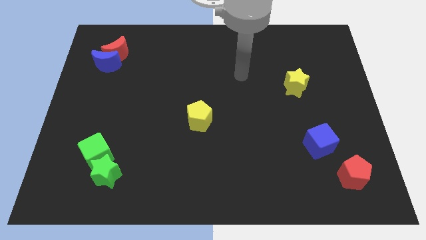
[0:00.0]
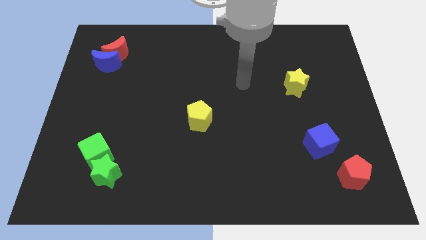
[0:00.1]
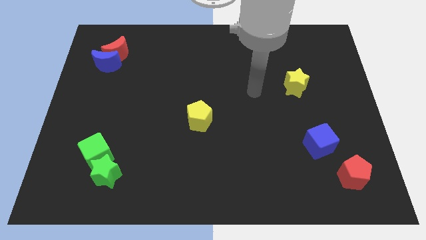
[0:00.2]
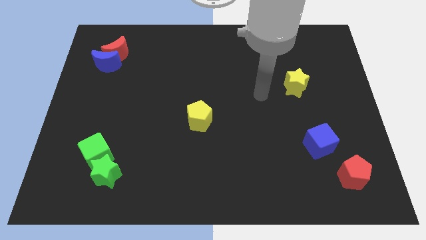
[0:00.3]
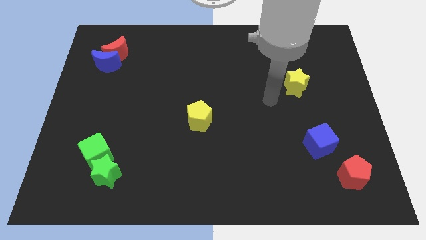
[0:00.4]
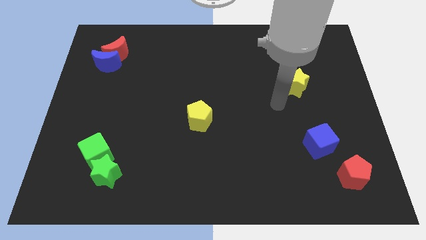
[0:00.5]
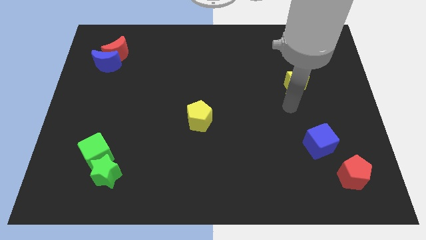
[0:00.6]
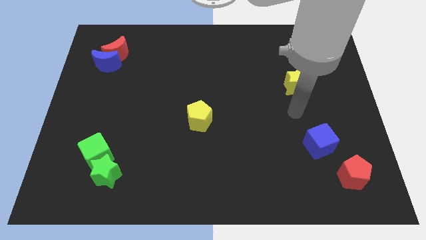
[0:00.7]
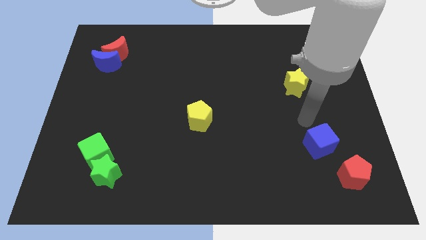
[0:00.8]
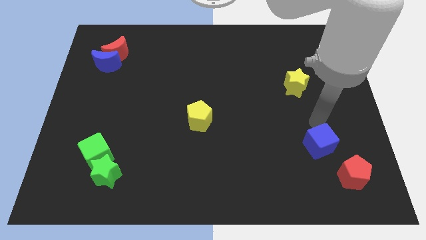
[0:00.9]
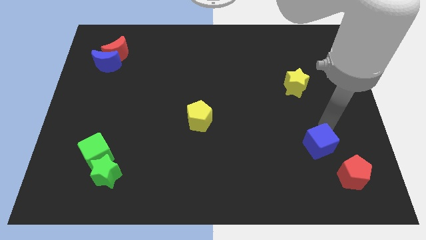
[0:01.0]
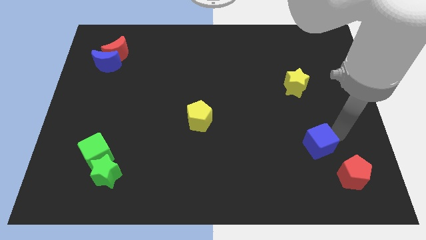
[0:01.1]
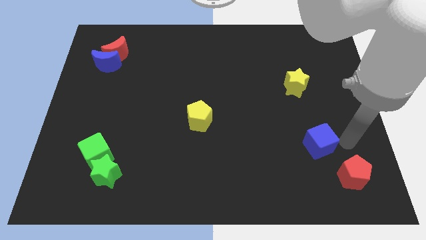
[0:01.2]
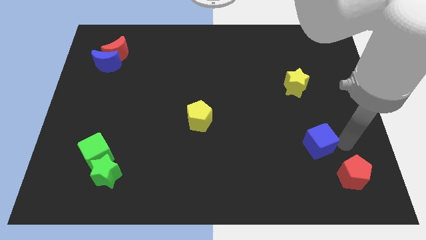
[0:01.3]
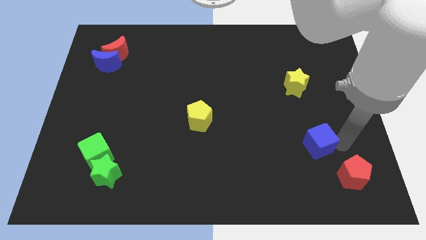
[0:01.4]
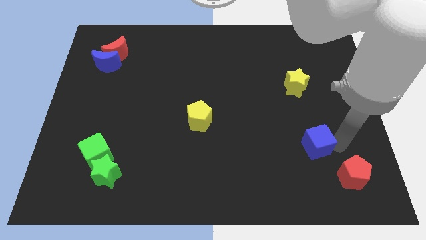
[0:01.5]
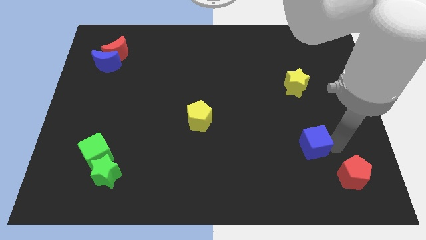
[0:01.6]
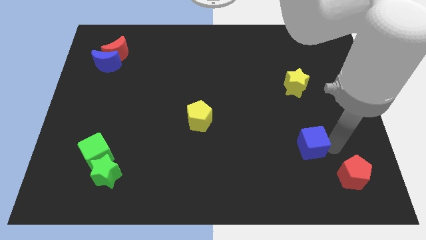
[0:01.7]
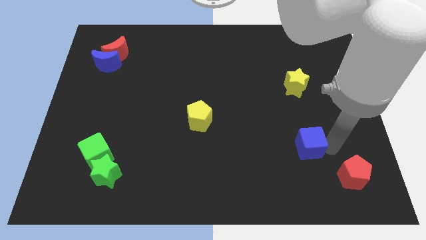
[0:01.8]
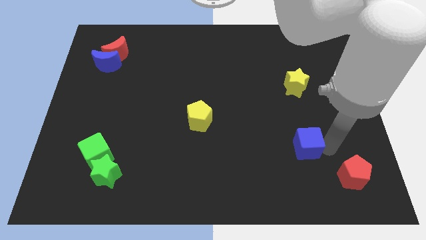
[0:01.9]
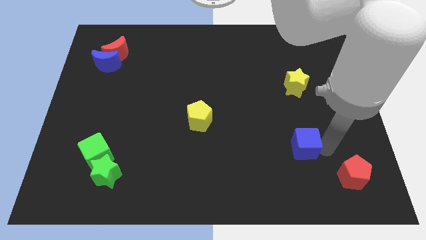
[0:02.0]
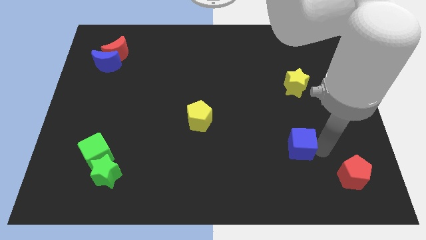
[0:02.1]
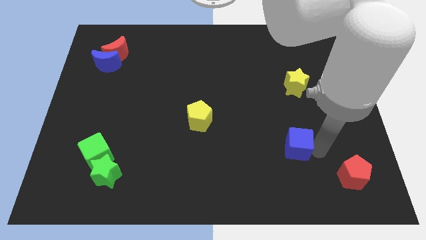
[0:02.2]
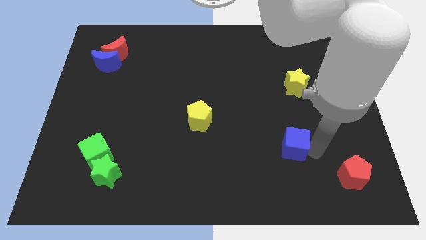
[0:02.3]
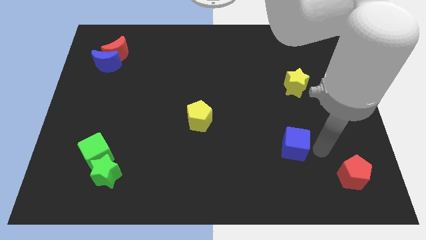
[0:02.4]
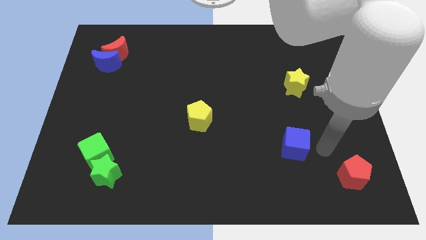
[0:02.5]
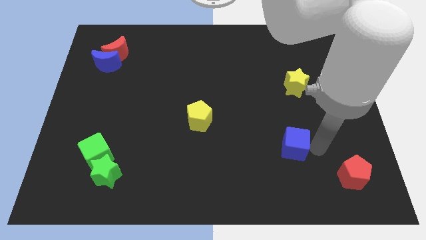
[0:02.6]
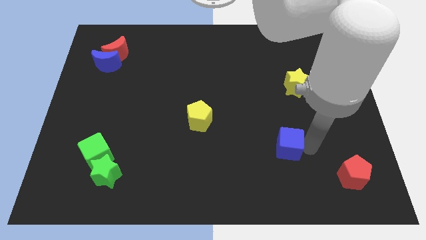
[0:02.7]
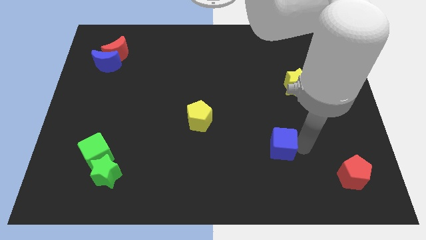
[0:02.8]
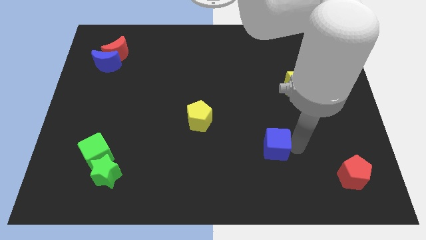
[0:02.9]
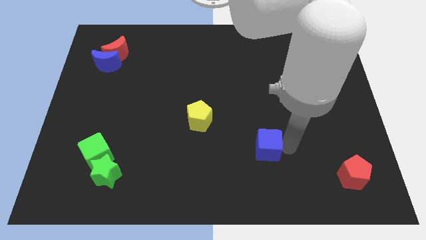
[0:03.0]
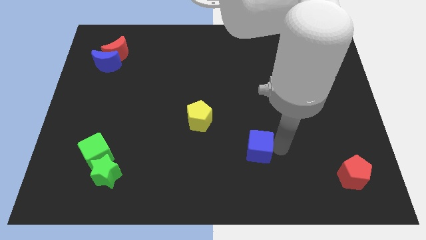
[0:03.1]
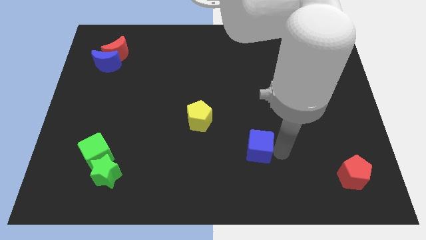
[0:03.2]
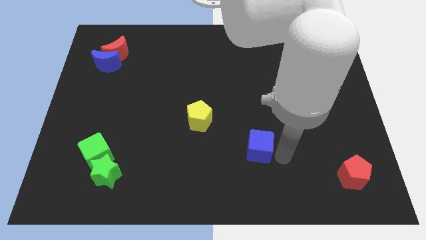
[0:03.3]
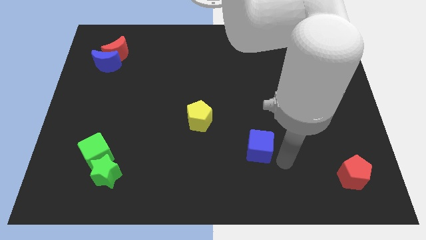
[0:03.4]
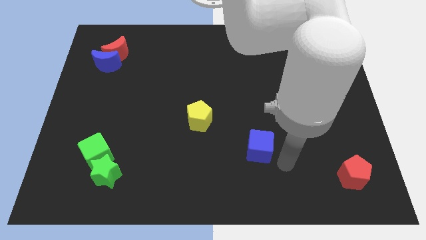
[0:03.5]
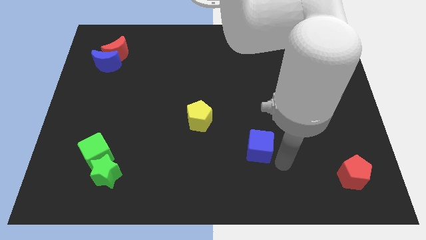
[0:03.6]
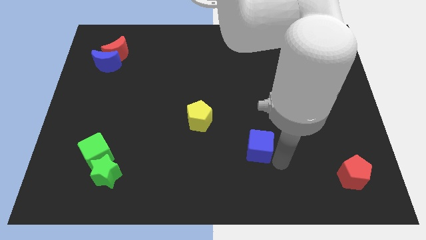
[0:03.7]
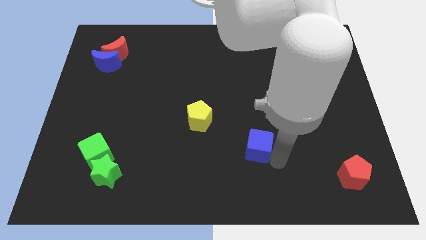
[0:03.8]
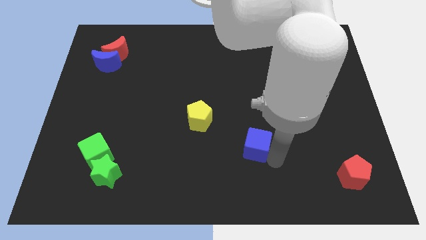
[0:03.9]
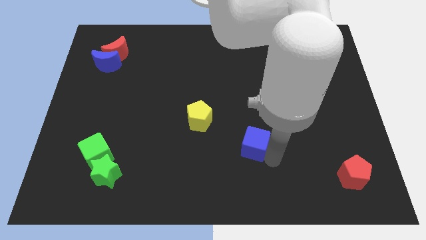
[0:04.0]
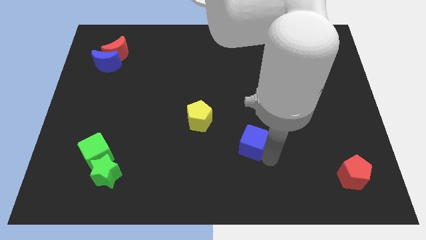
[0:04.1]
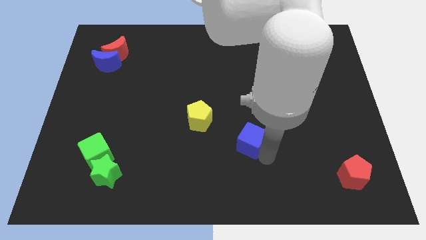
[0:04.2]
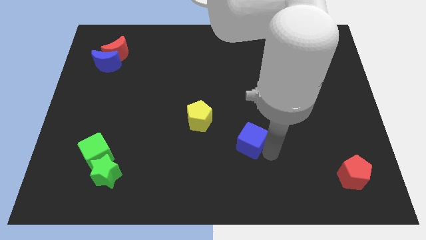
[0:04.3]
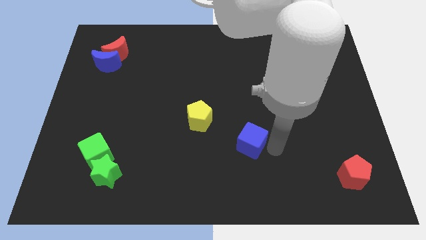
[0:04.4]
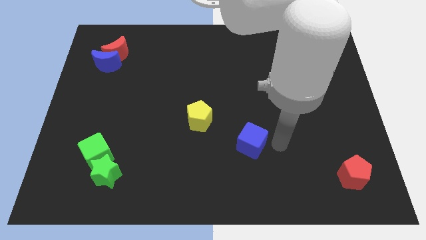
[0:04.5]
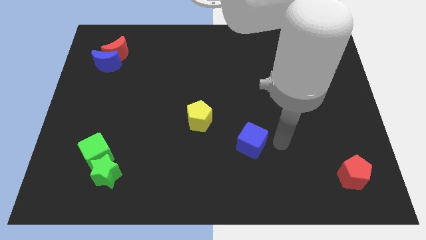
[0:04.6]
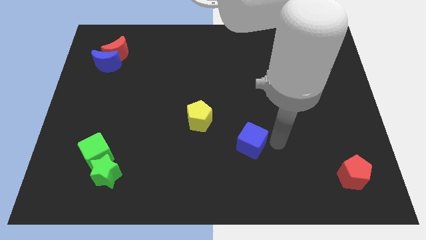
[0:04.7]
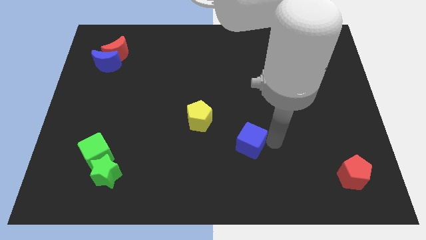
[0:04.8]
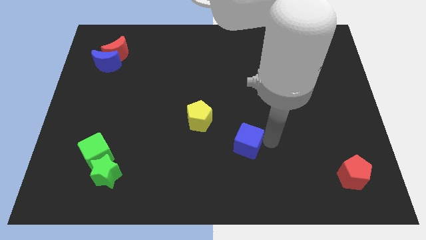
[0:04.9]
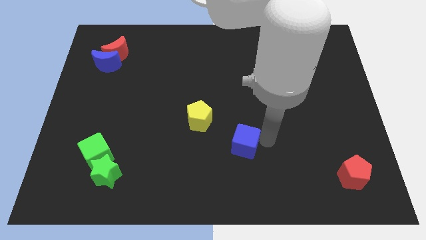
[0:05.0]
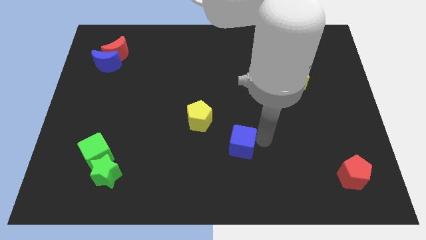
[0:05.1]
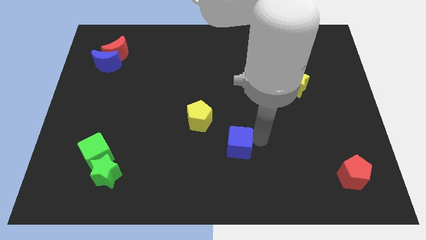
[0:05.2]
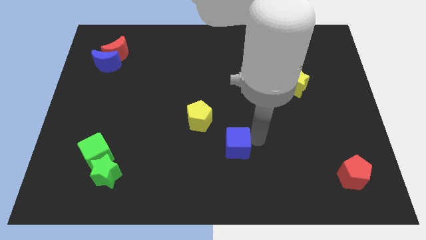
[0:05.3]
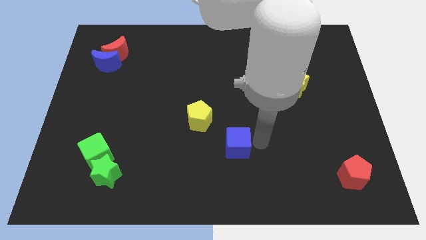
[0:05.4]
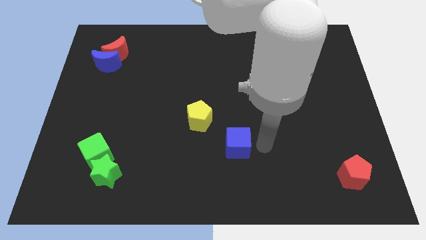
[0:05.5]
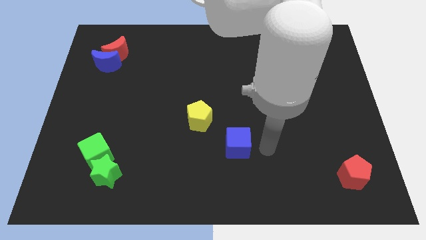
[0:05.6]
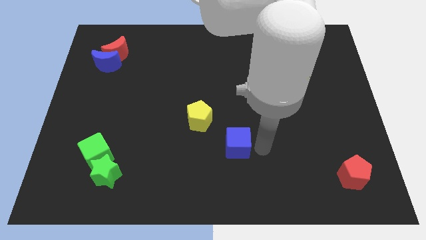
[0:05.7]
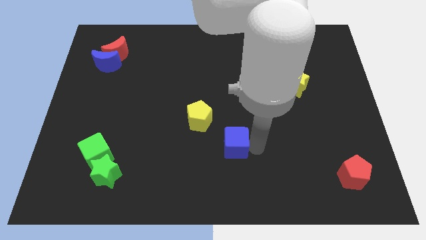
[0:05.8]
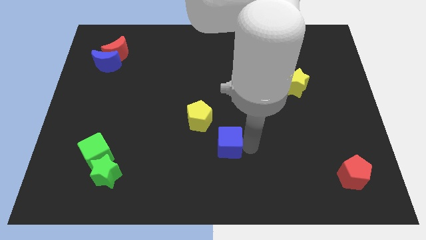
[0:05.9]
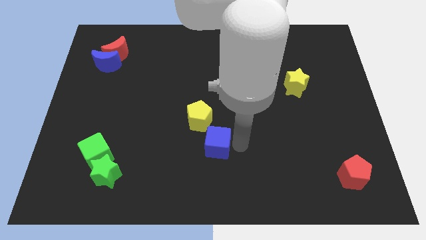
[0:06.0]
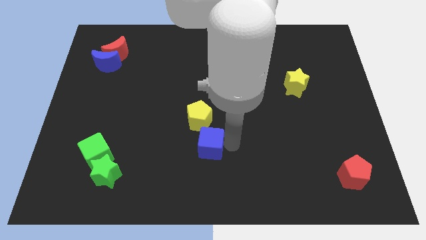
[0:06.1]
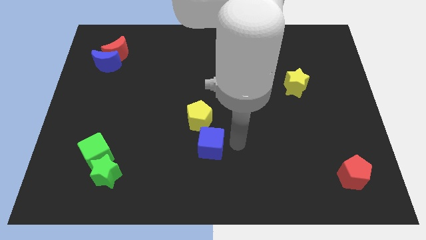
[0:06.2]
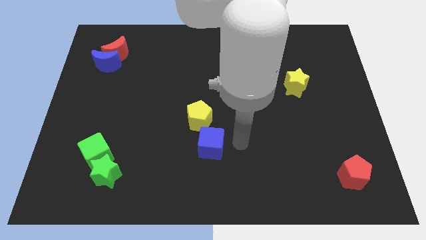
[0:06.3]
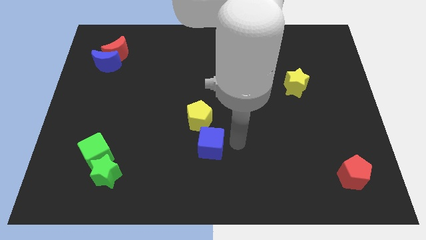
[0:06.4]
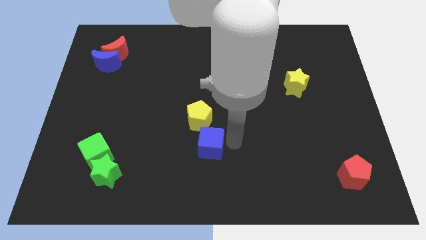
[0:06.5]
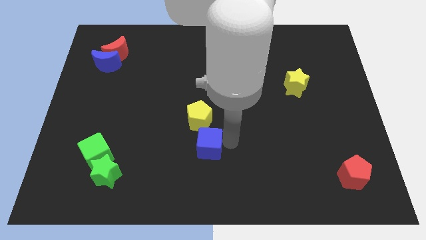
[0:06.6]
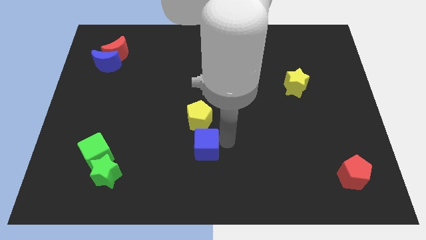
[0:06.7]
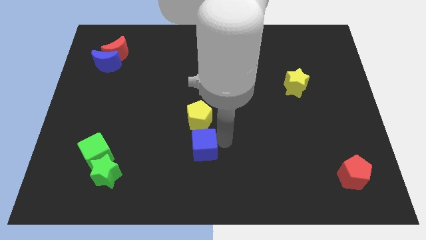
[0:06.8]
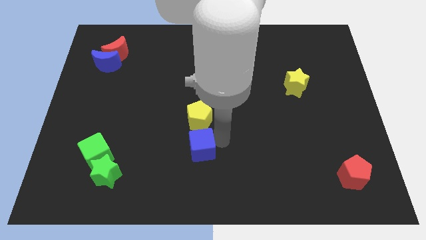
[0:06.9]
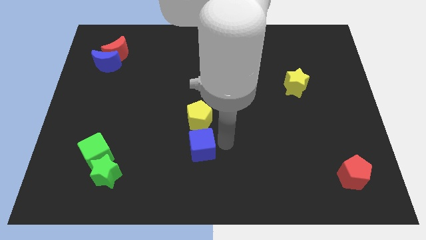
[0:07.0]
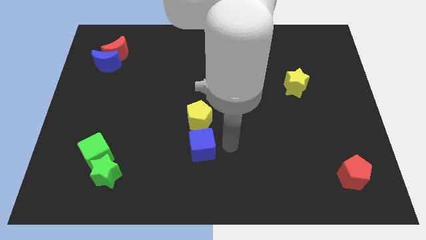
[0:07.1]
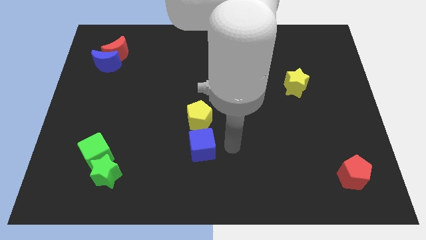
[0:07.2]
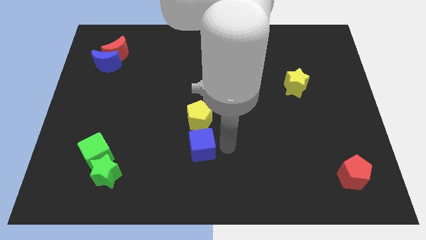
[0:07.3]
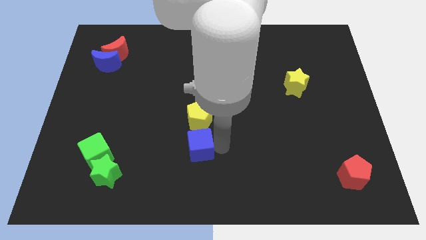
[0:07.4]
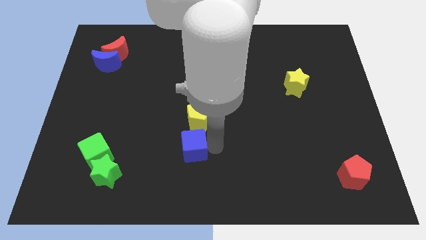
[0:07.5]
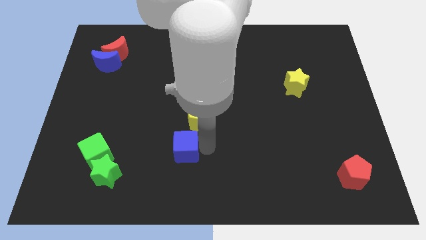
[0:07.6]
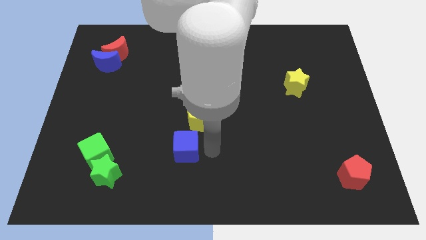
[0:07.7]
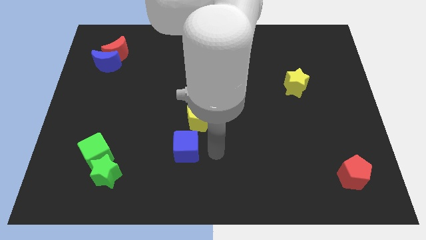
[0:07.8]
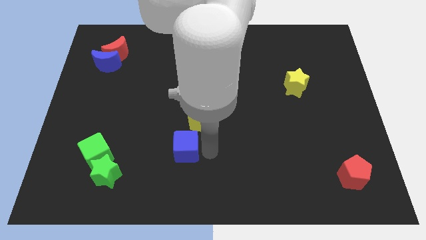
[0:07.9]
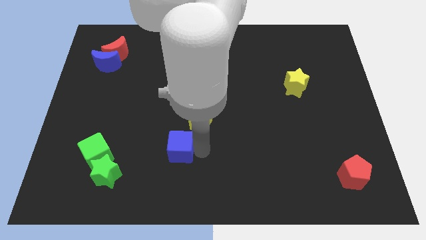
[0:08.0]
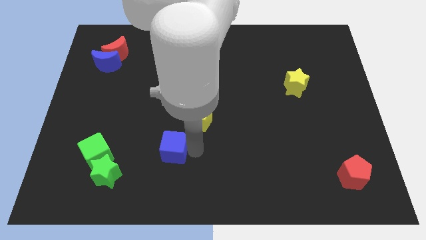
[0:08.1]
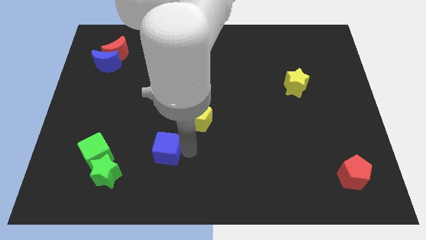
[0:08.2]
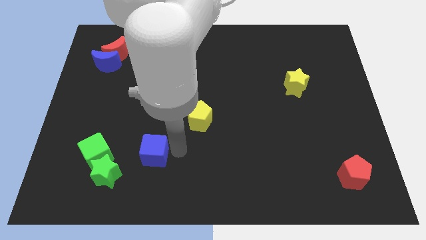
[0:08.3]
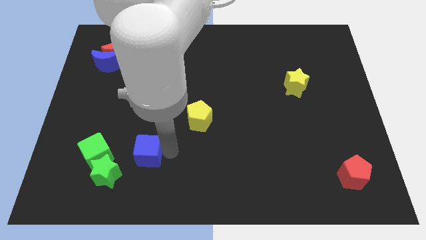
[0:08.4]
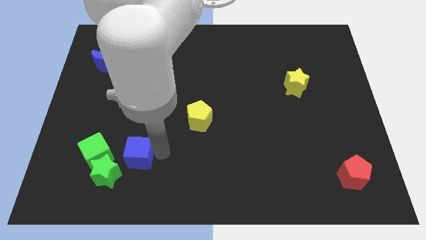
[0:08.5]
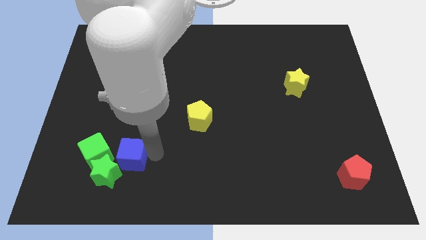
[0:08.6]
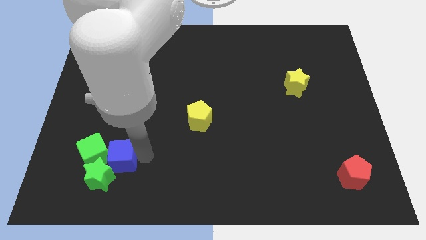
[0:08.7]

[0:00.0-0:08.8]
move the blue cube to the green cube
